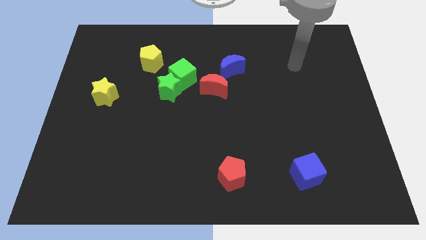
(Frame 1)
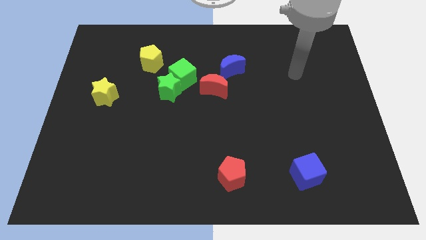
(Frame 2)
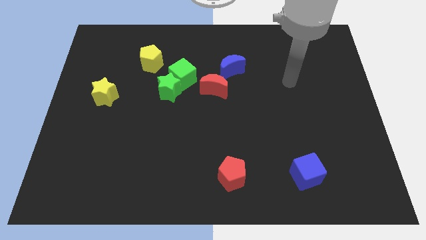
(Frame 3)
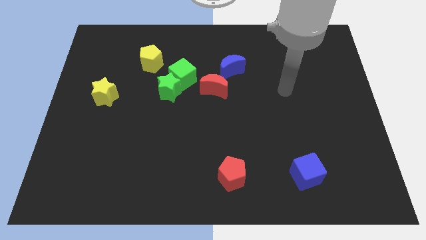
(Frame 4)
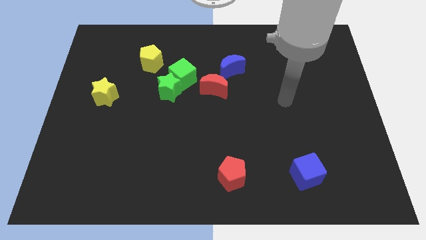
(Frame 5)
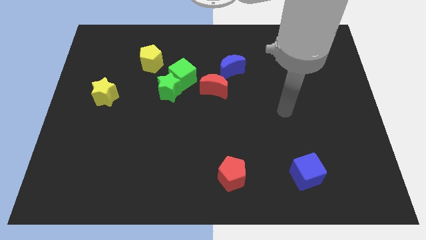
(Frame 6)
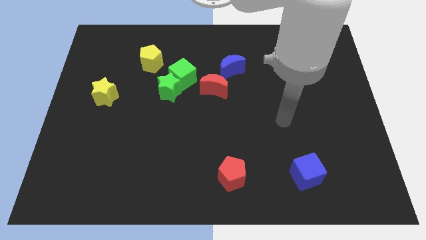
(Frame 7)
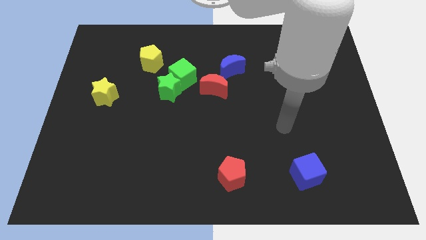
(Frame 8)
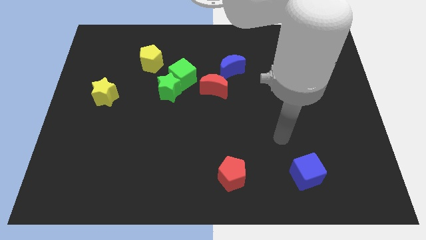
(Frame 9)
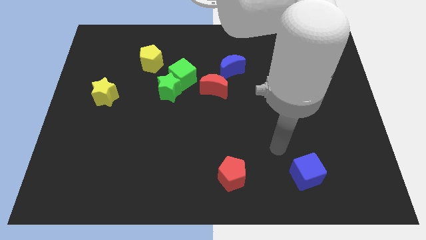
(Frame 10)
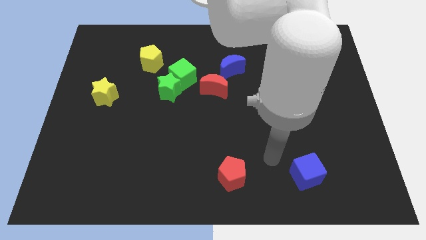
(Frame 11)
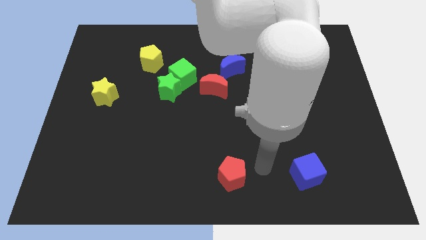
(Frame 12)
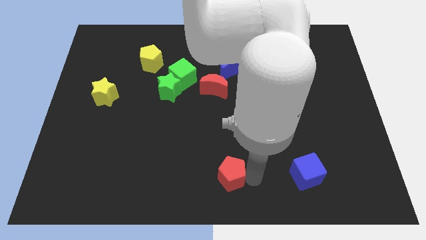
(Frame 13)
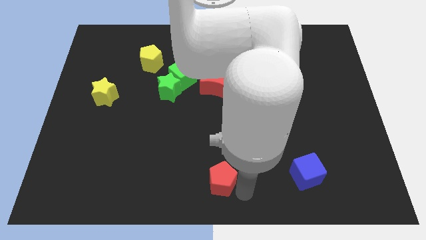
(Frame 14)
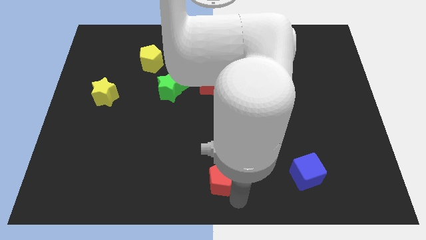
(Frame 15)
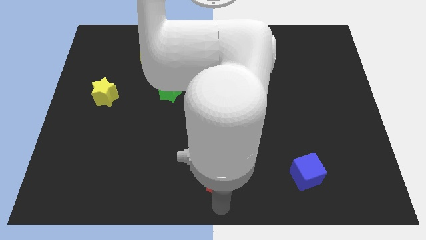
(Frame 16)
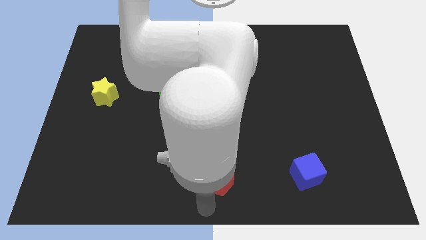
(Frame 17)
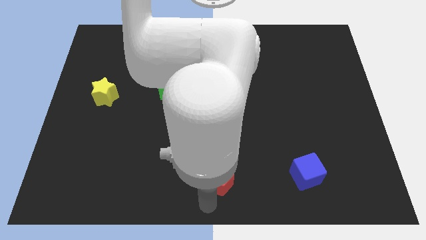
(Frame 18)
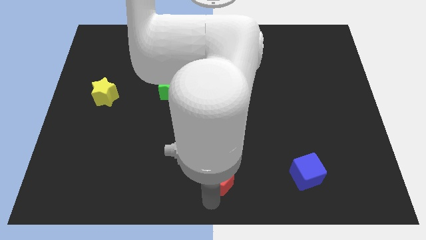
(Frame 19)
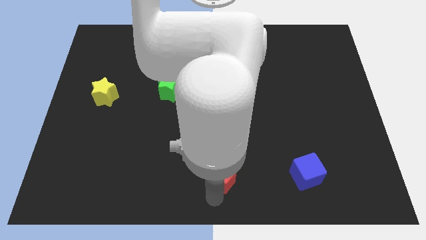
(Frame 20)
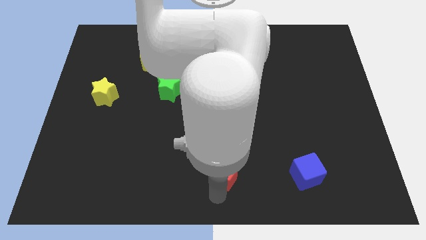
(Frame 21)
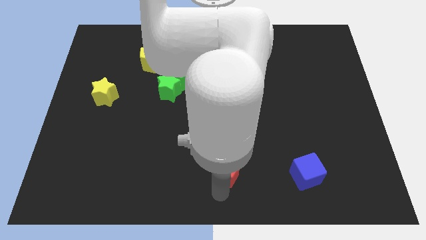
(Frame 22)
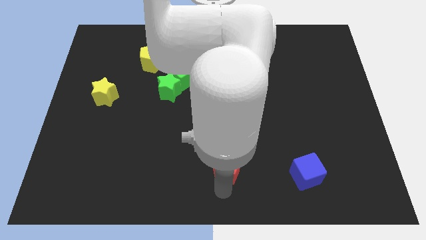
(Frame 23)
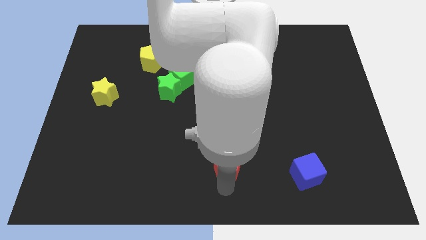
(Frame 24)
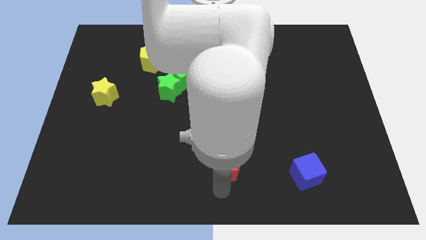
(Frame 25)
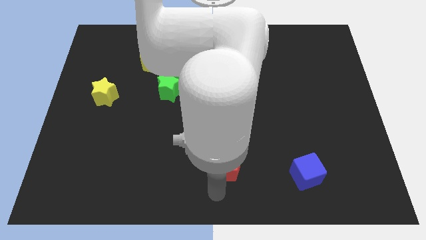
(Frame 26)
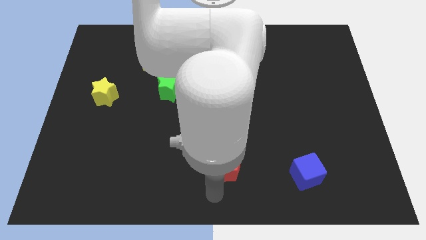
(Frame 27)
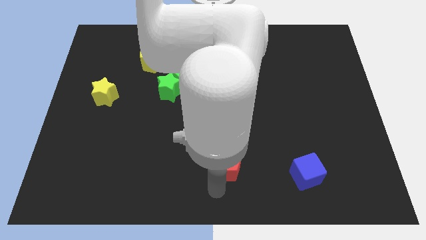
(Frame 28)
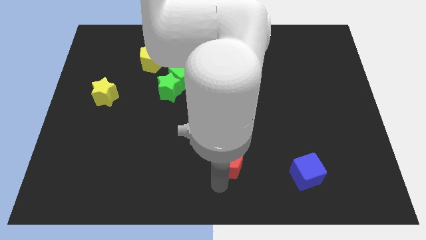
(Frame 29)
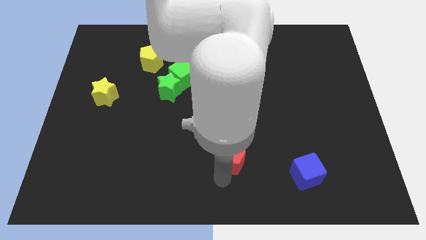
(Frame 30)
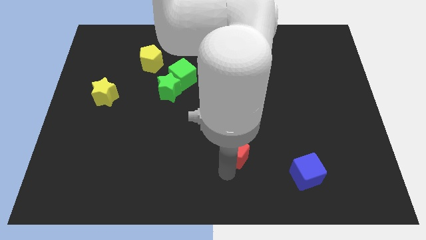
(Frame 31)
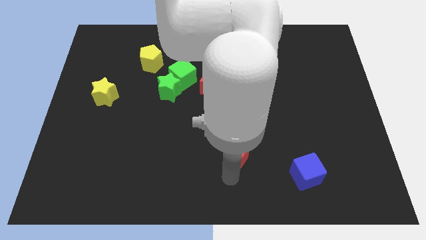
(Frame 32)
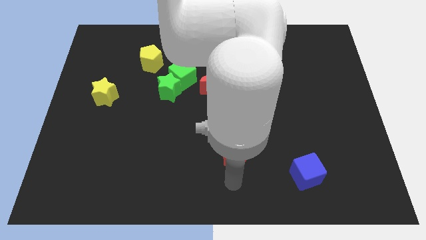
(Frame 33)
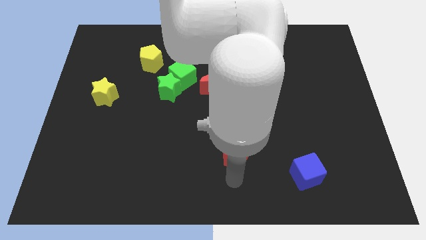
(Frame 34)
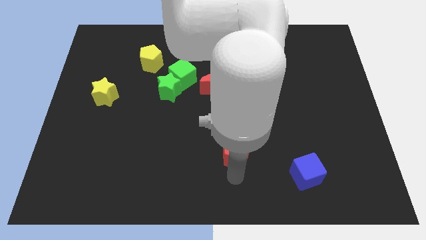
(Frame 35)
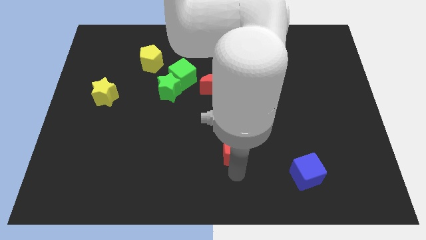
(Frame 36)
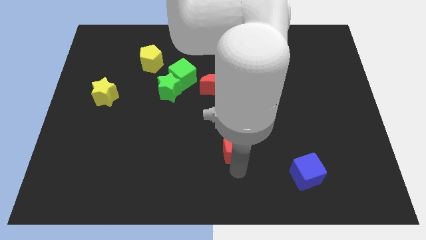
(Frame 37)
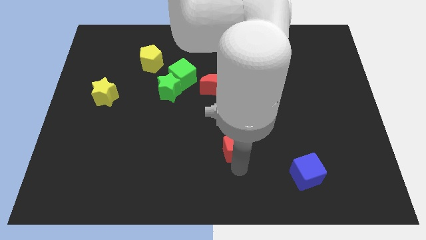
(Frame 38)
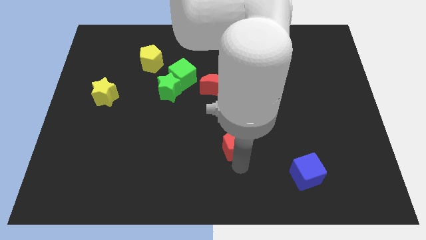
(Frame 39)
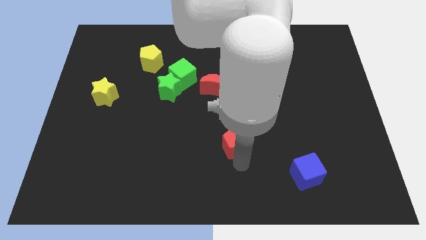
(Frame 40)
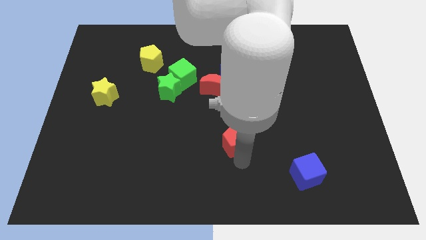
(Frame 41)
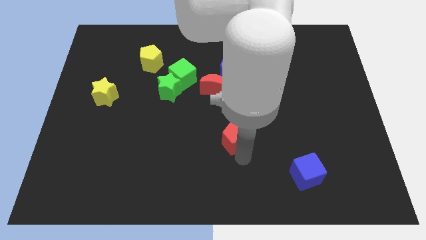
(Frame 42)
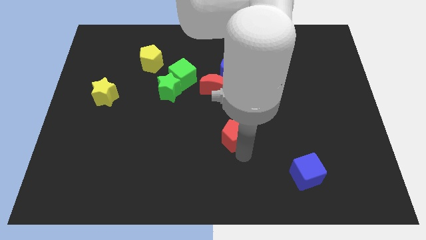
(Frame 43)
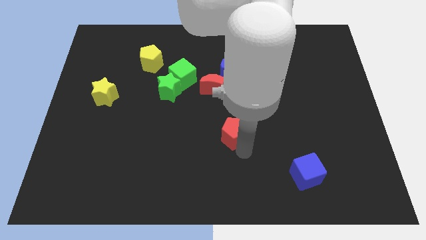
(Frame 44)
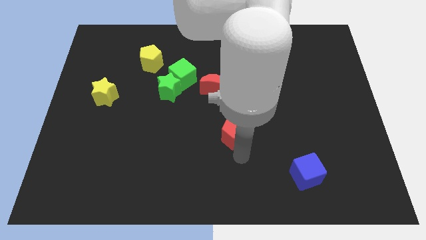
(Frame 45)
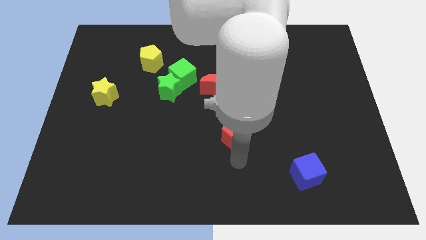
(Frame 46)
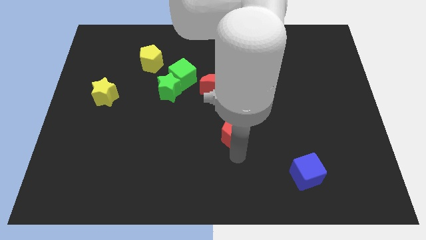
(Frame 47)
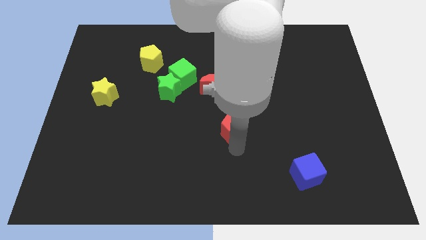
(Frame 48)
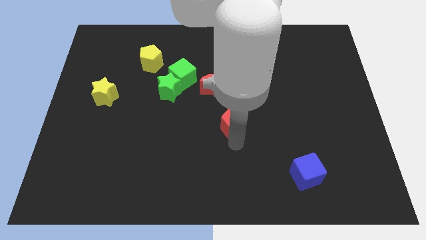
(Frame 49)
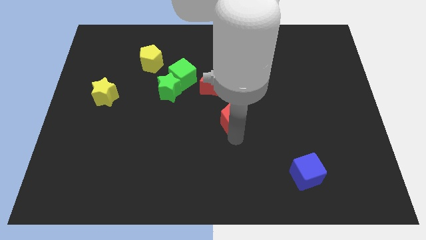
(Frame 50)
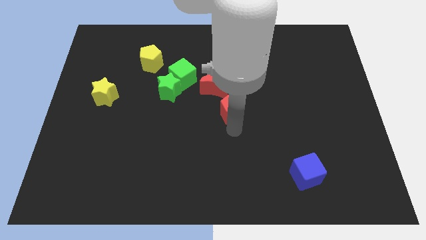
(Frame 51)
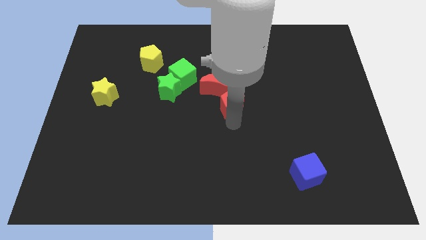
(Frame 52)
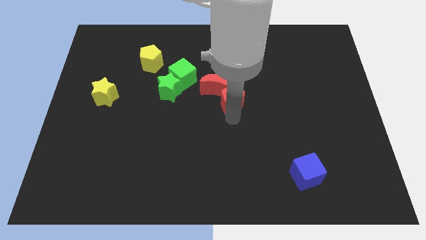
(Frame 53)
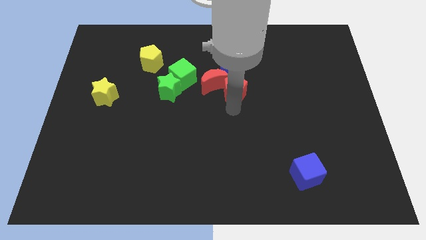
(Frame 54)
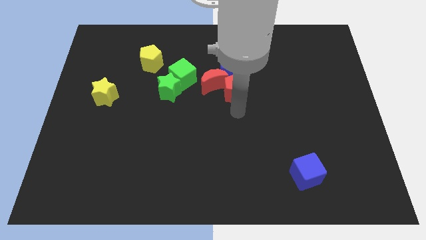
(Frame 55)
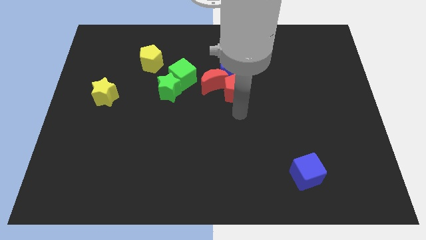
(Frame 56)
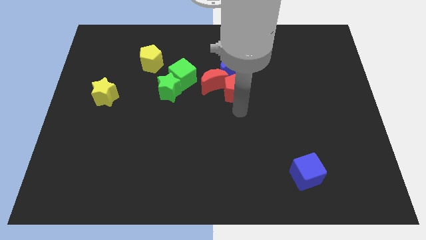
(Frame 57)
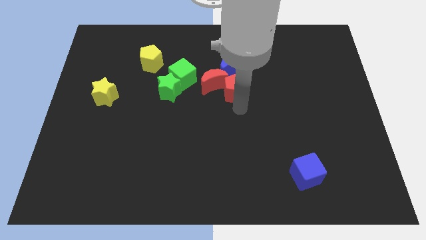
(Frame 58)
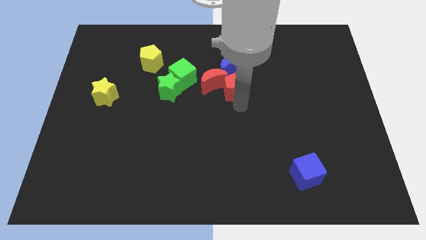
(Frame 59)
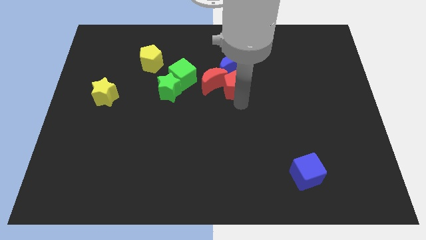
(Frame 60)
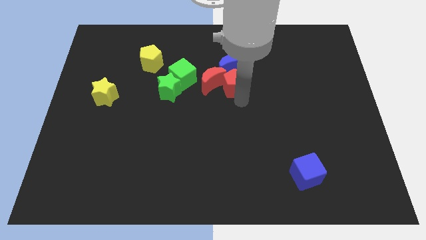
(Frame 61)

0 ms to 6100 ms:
slide the red pentagon next to the blue moon

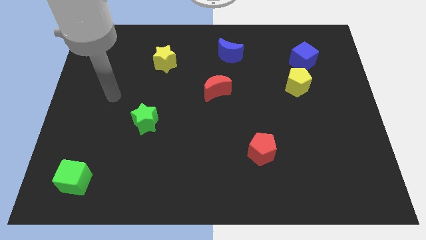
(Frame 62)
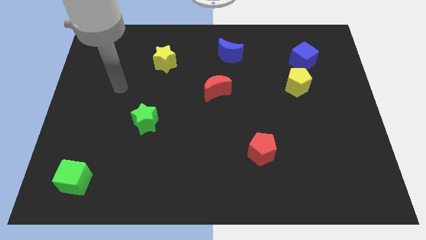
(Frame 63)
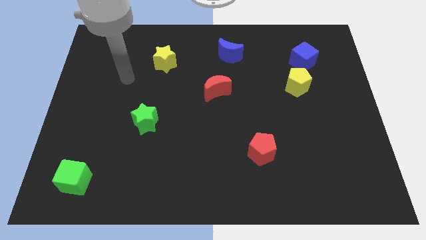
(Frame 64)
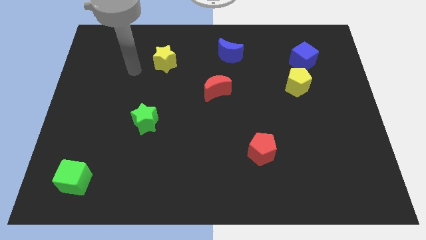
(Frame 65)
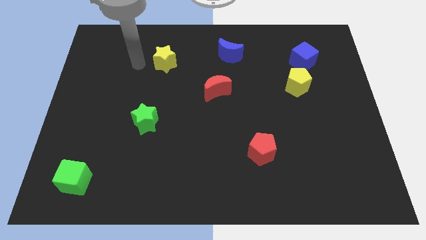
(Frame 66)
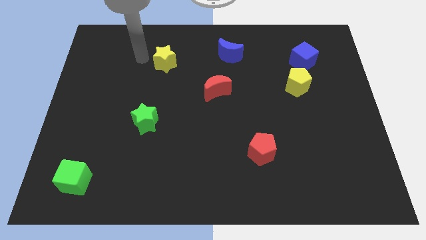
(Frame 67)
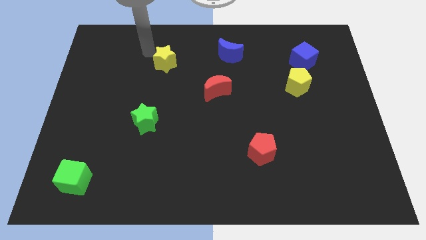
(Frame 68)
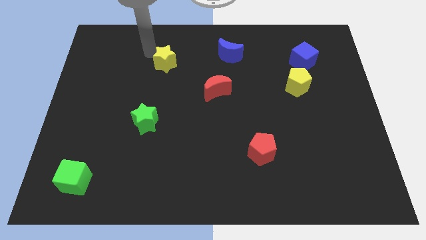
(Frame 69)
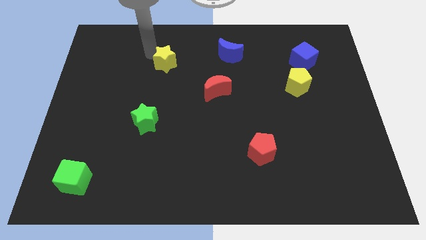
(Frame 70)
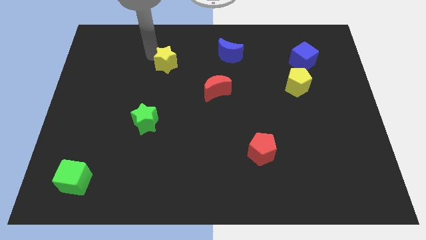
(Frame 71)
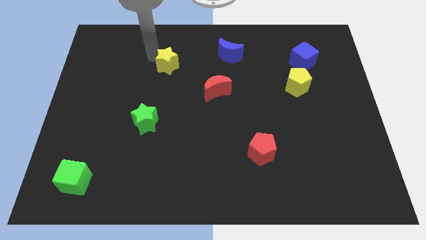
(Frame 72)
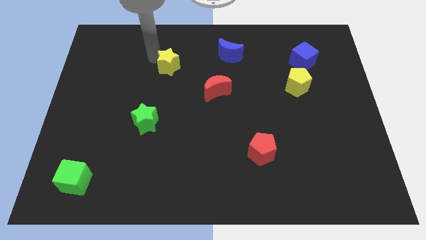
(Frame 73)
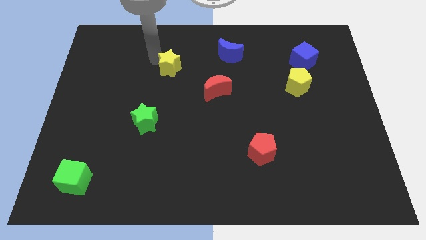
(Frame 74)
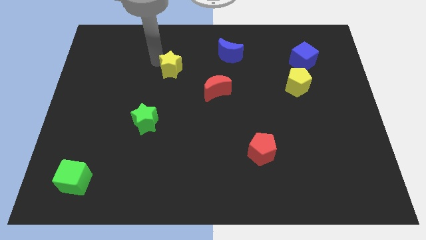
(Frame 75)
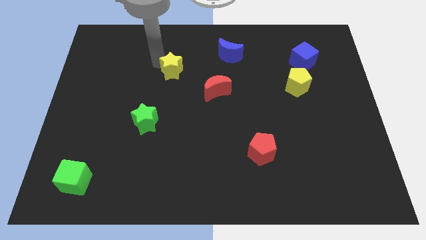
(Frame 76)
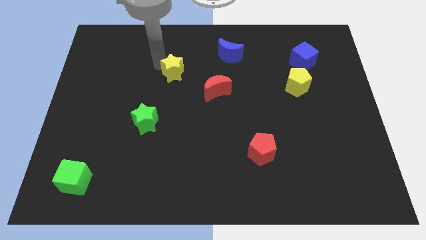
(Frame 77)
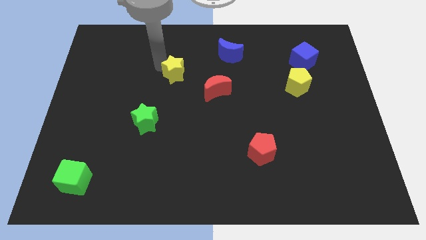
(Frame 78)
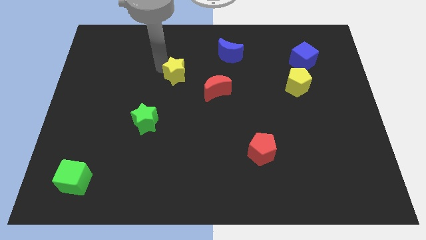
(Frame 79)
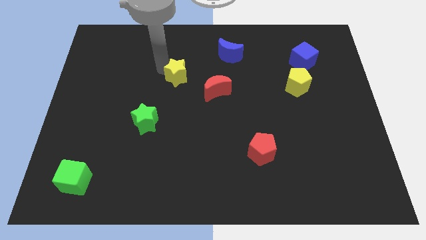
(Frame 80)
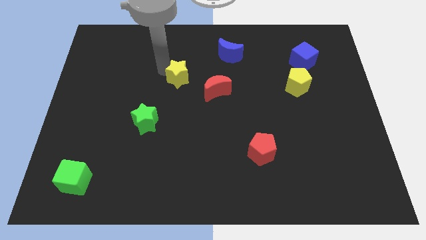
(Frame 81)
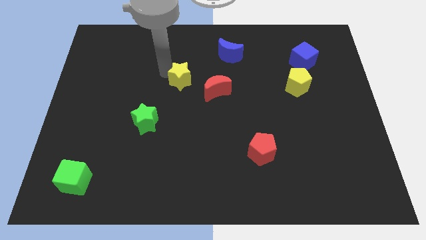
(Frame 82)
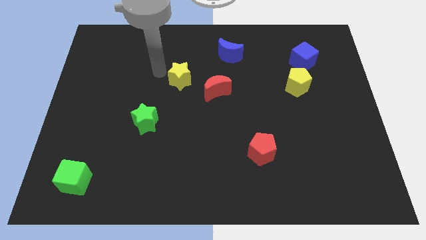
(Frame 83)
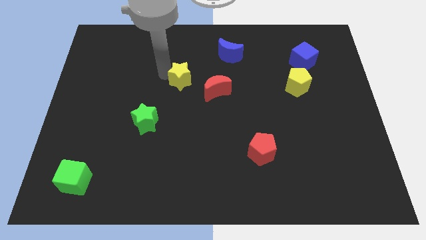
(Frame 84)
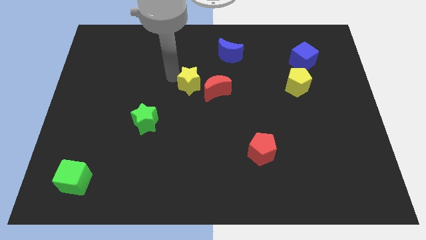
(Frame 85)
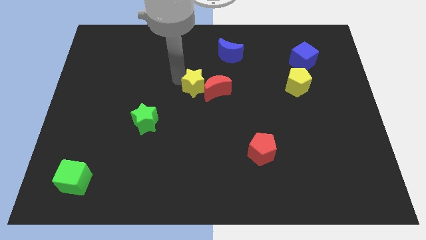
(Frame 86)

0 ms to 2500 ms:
put the yellow star towards the red moon
